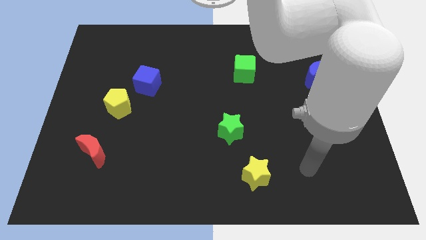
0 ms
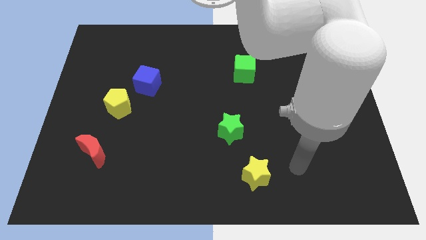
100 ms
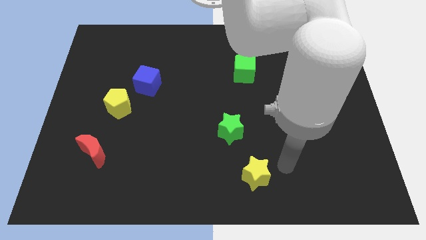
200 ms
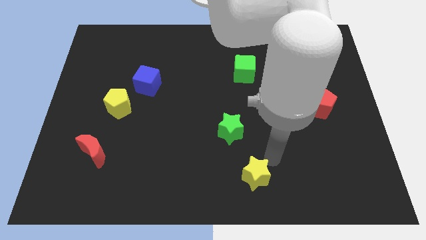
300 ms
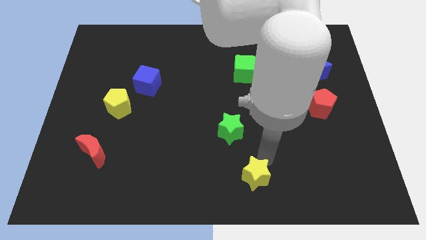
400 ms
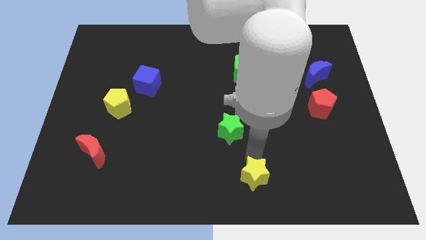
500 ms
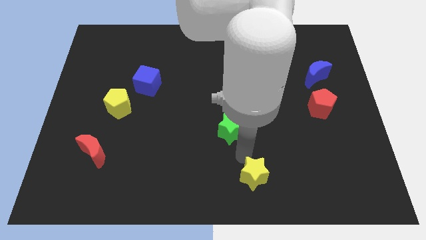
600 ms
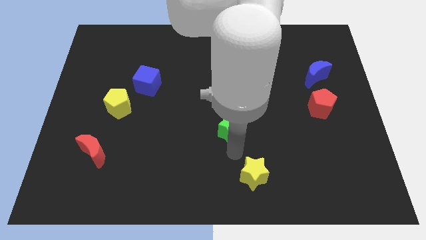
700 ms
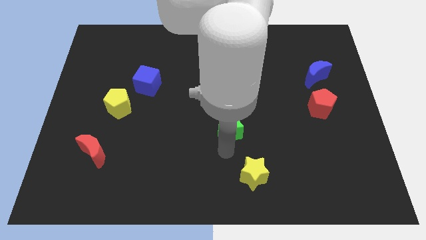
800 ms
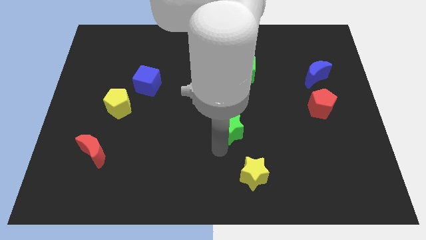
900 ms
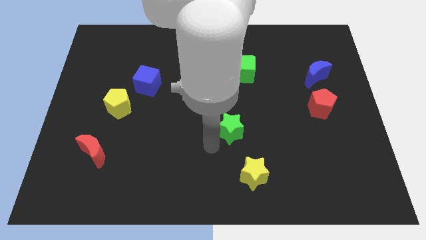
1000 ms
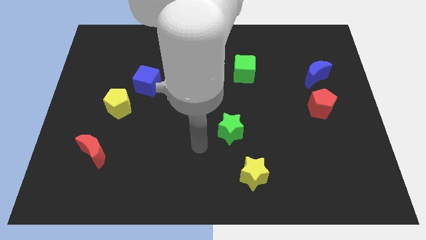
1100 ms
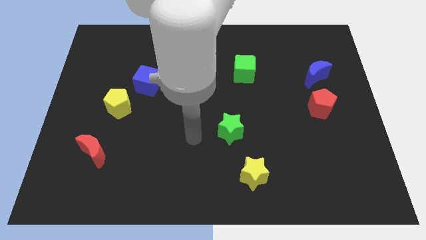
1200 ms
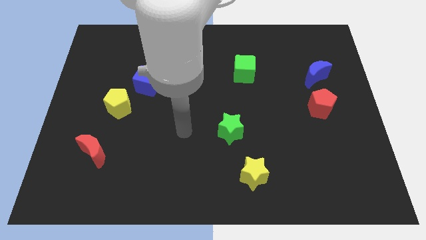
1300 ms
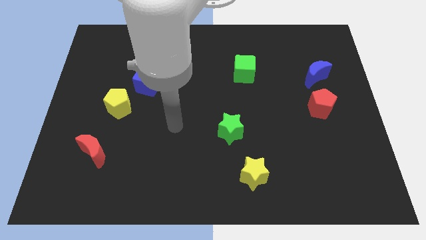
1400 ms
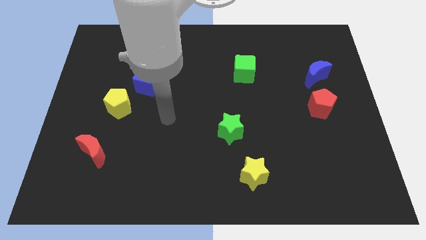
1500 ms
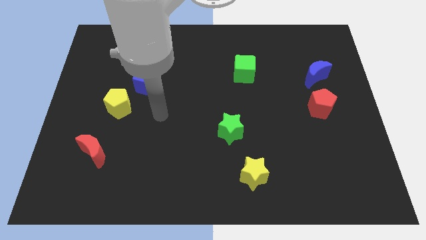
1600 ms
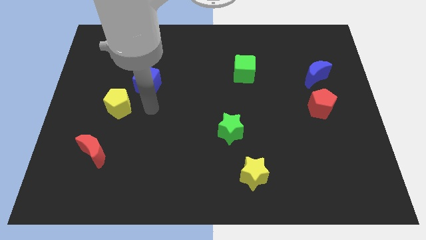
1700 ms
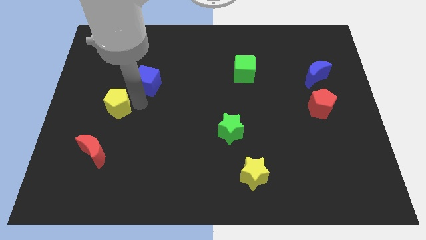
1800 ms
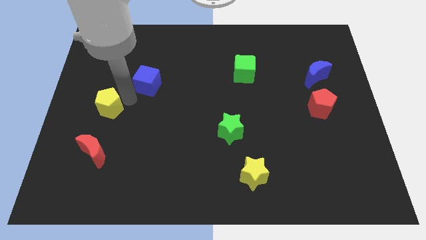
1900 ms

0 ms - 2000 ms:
pull the blue cube apart from the yellow pentagon

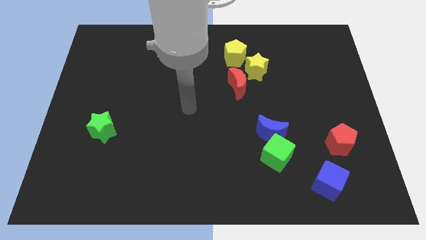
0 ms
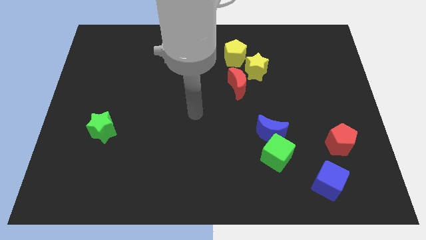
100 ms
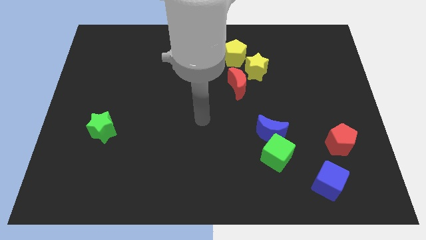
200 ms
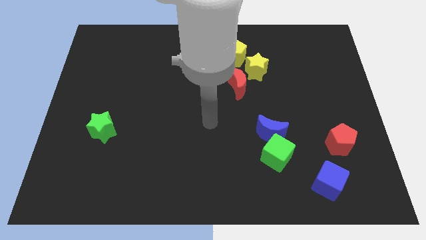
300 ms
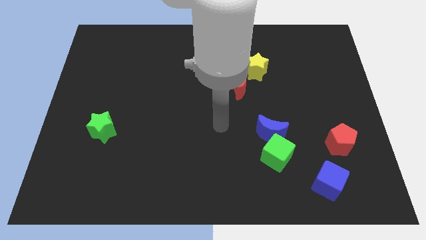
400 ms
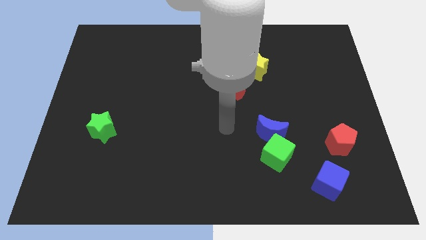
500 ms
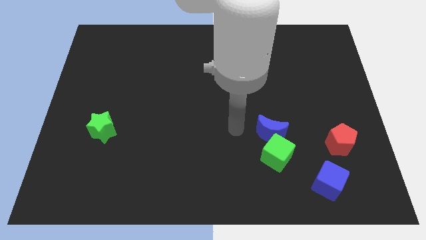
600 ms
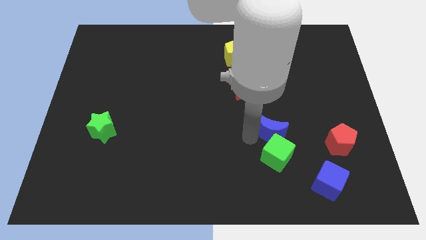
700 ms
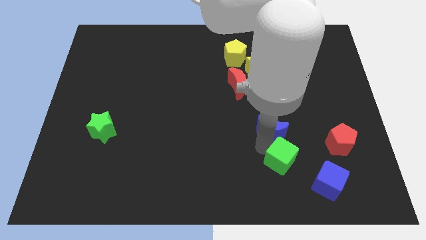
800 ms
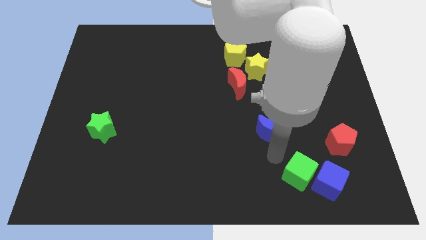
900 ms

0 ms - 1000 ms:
pull the blue moon apart from the green cube

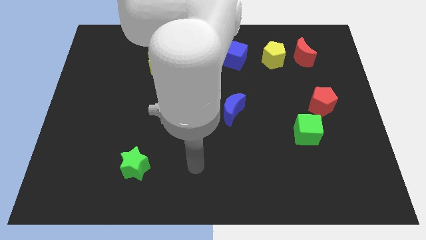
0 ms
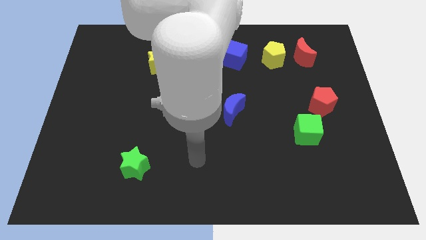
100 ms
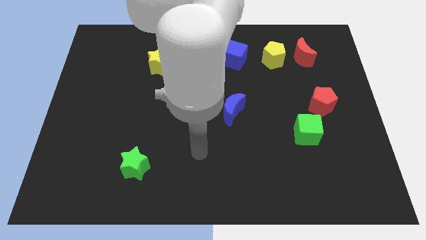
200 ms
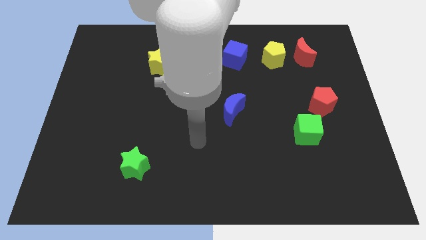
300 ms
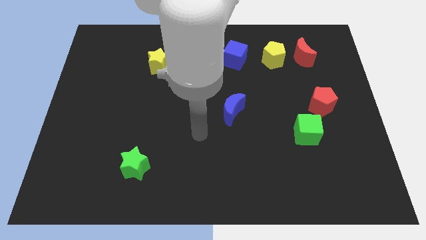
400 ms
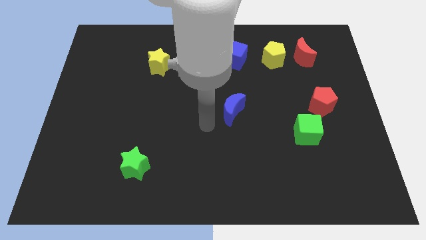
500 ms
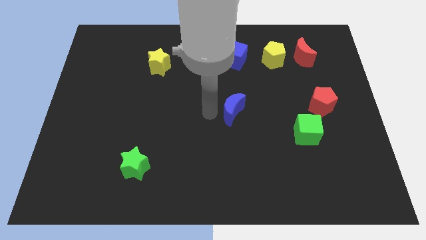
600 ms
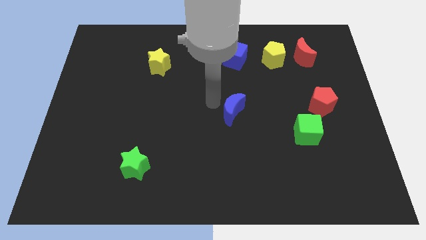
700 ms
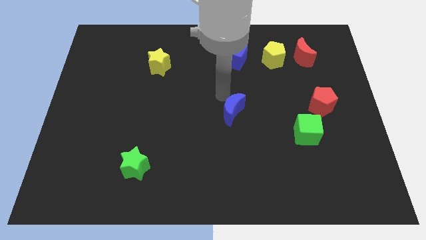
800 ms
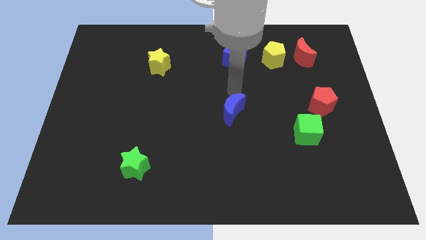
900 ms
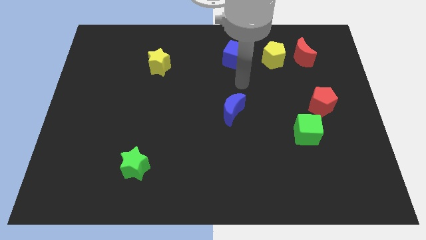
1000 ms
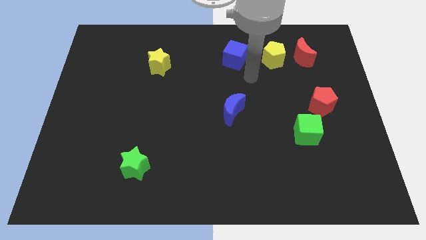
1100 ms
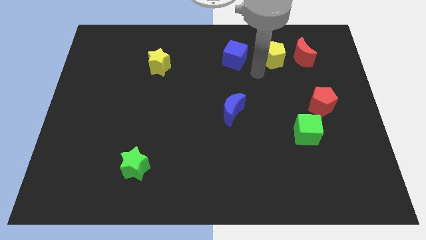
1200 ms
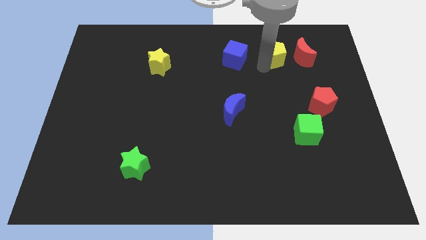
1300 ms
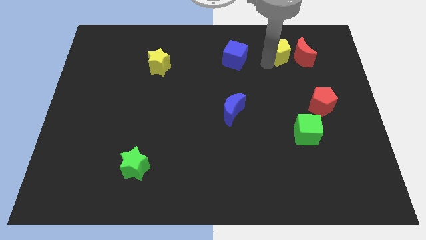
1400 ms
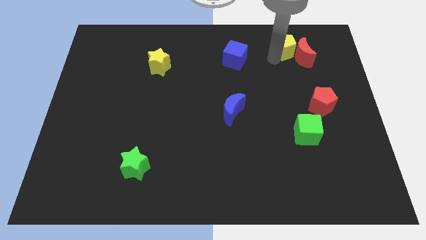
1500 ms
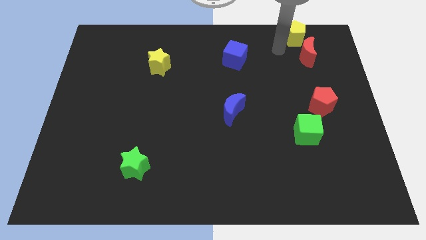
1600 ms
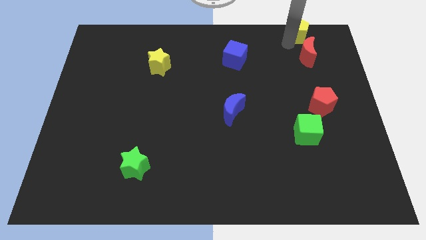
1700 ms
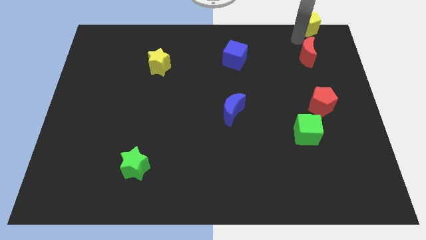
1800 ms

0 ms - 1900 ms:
pull the red moon apart from the yellow pentagon

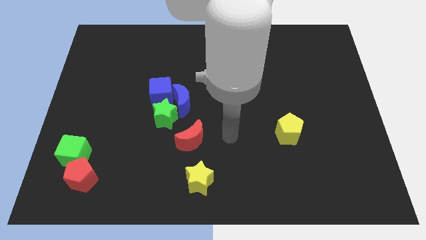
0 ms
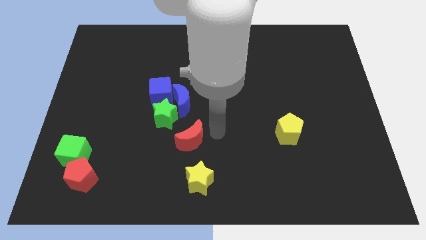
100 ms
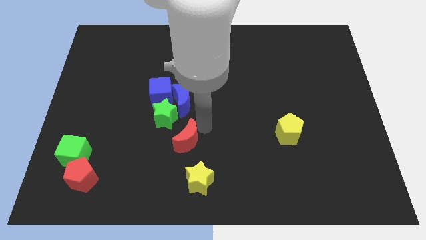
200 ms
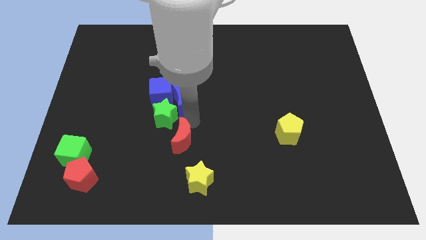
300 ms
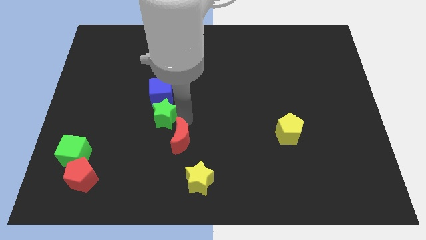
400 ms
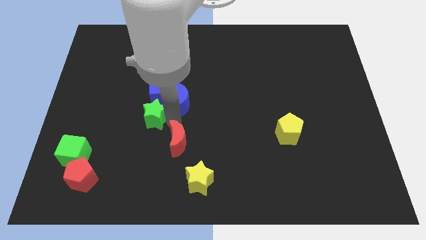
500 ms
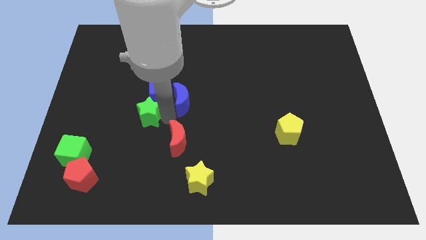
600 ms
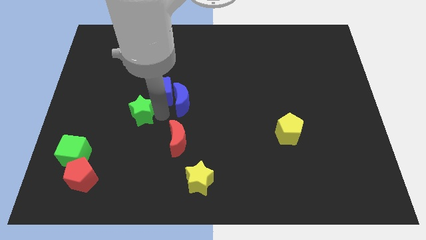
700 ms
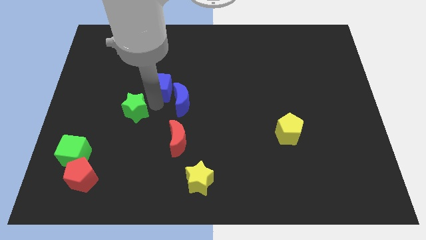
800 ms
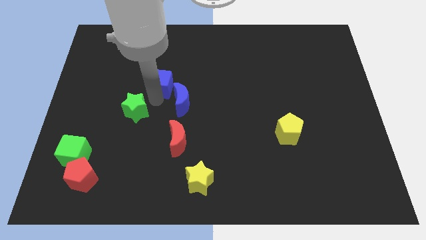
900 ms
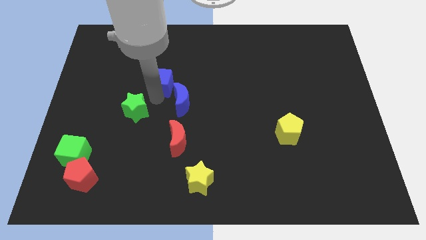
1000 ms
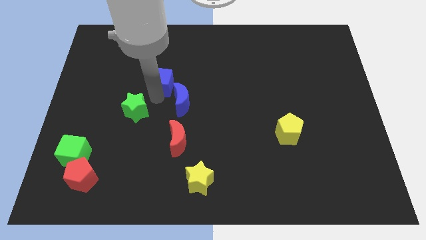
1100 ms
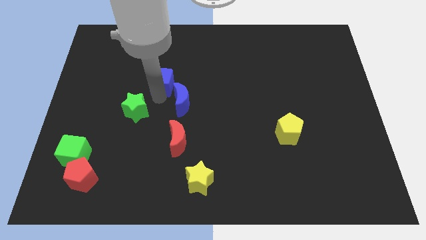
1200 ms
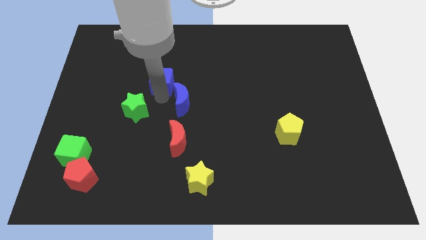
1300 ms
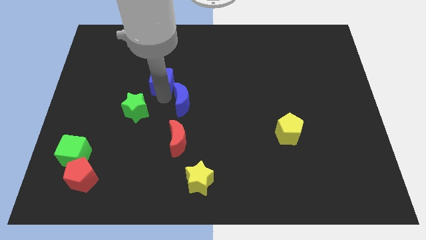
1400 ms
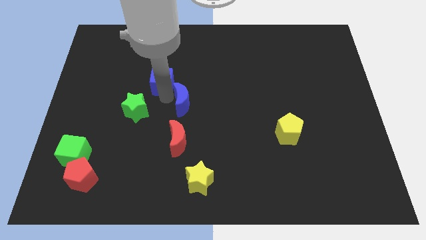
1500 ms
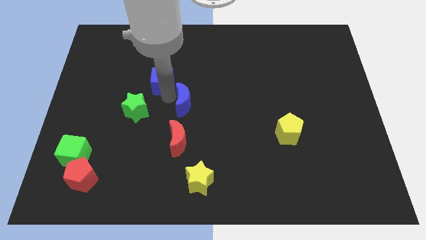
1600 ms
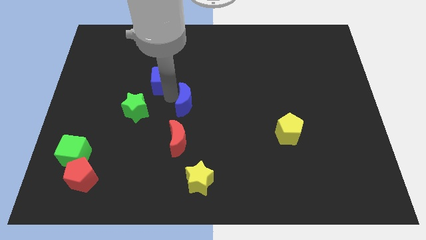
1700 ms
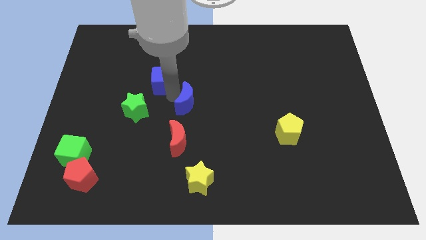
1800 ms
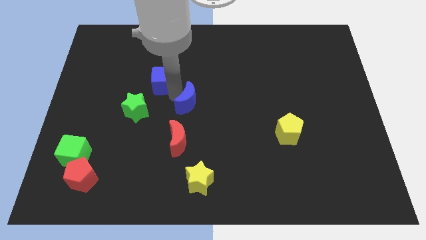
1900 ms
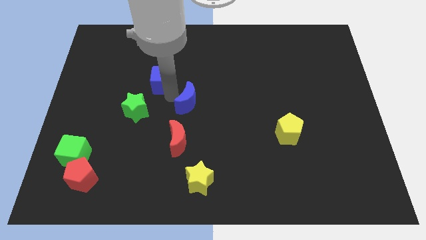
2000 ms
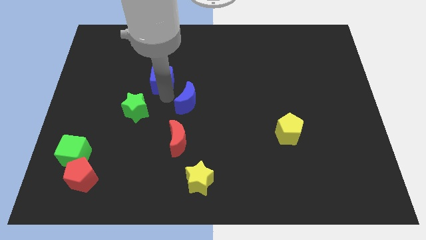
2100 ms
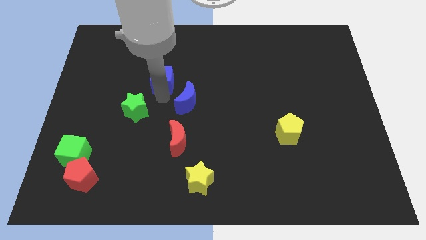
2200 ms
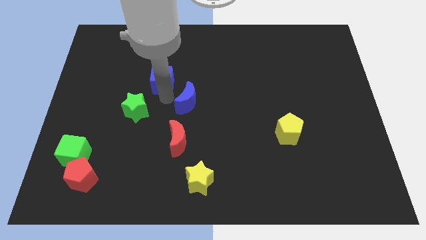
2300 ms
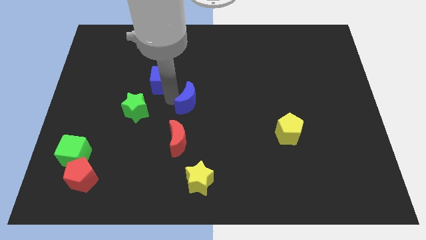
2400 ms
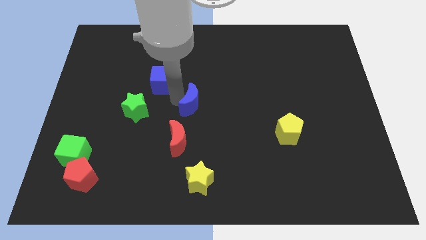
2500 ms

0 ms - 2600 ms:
pull the blue moon apart from the green star and blue cube

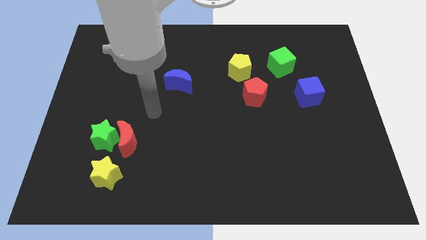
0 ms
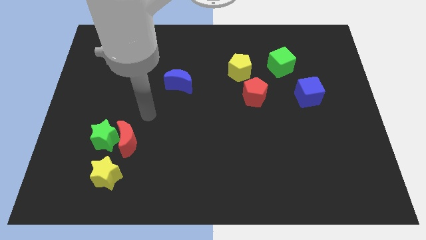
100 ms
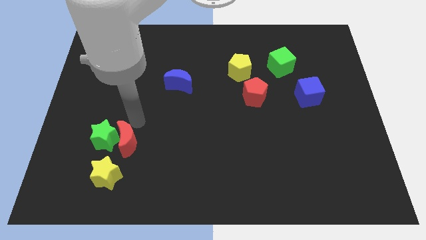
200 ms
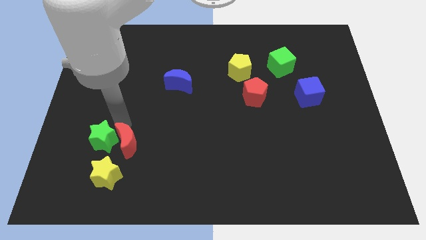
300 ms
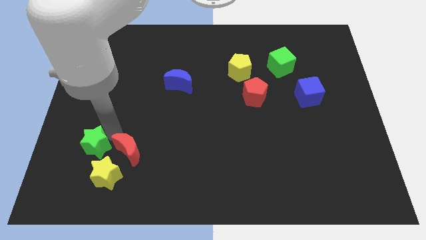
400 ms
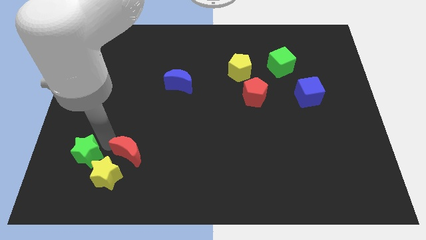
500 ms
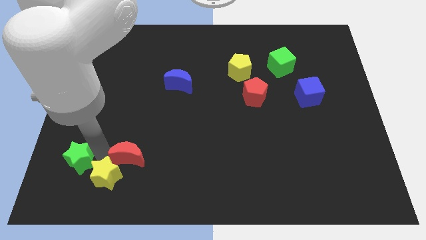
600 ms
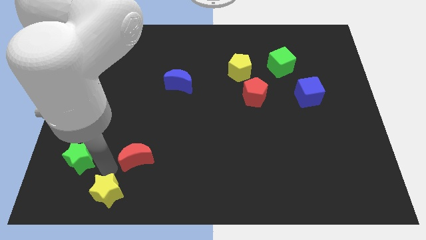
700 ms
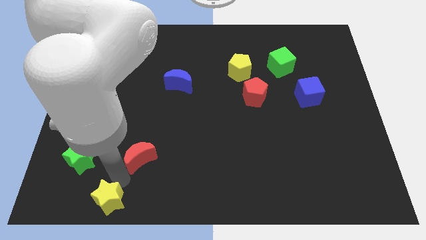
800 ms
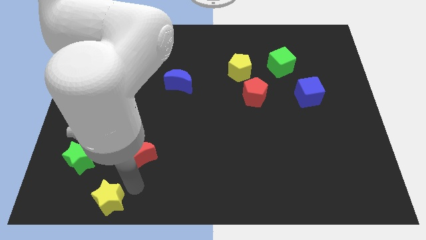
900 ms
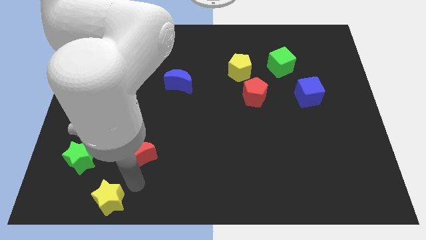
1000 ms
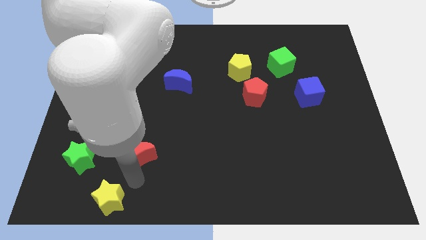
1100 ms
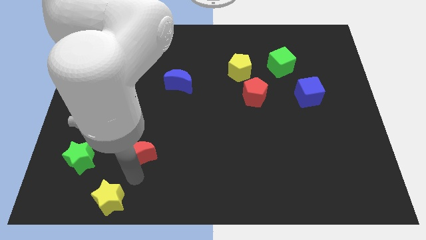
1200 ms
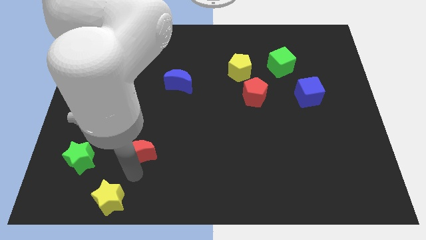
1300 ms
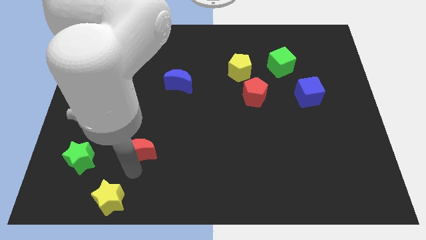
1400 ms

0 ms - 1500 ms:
move the red moon away from the green star and yellow star

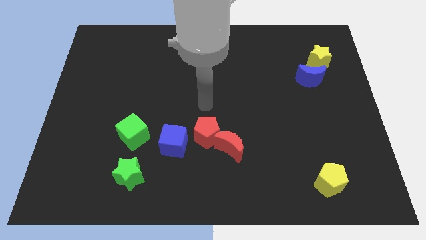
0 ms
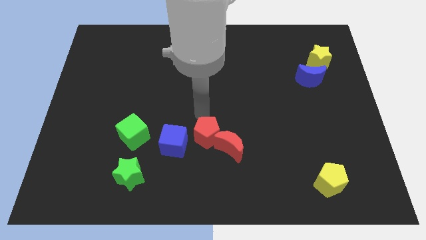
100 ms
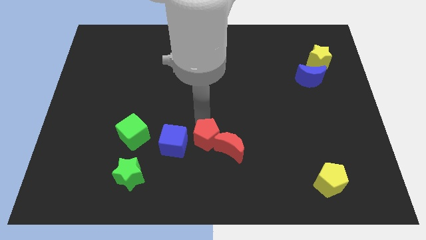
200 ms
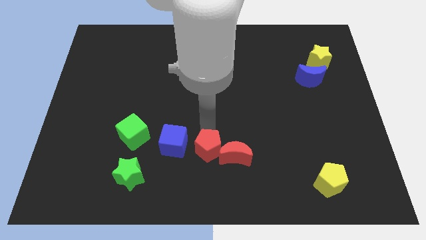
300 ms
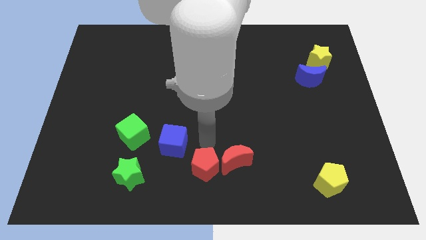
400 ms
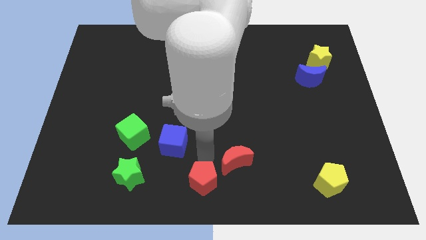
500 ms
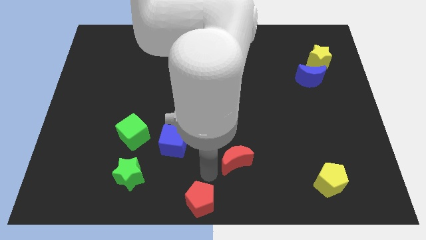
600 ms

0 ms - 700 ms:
separate the red moon from the red pentagon
